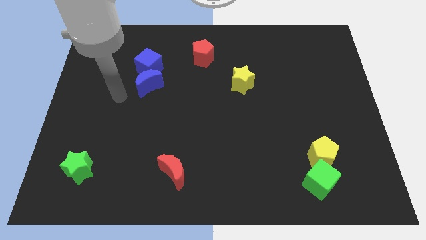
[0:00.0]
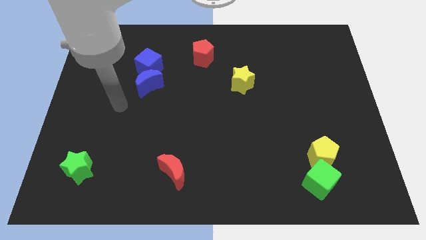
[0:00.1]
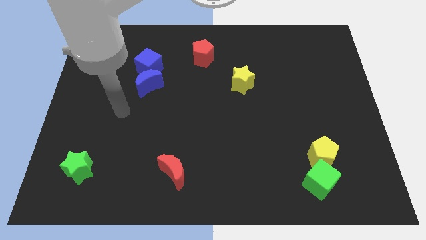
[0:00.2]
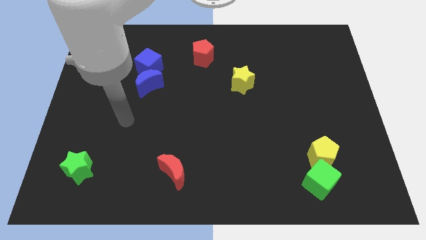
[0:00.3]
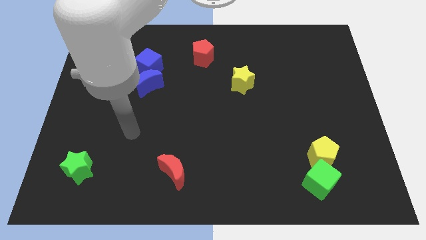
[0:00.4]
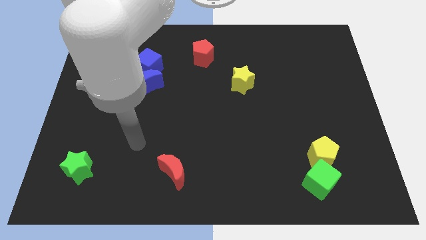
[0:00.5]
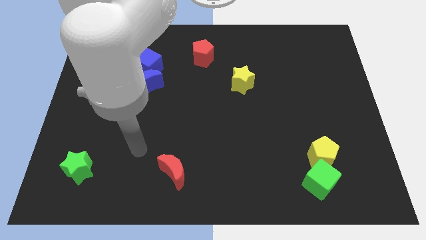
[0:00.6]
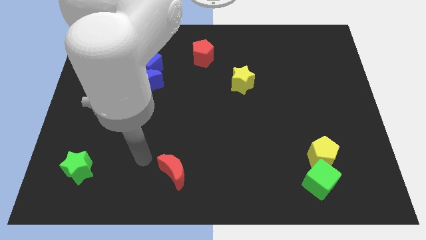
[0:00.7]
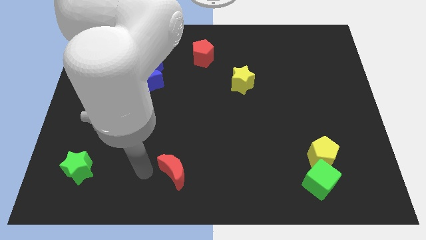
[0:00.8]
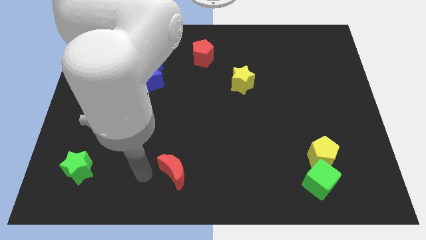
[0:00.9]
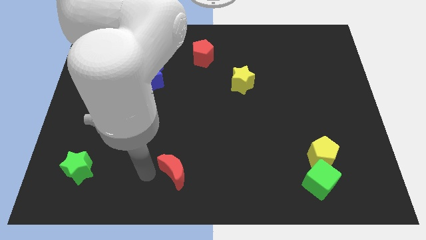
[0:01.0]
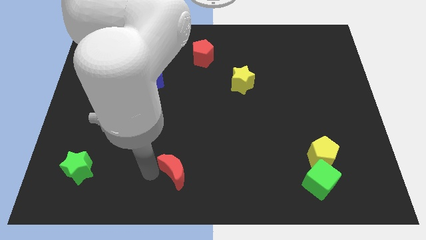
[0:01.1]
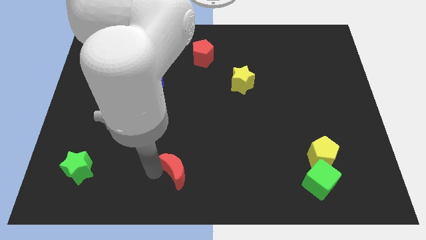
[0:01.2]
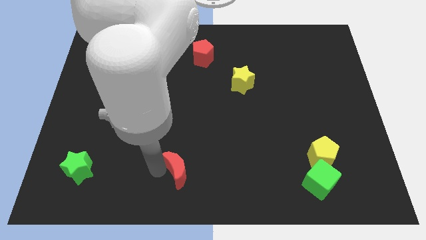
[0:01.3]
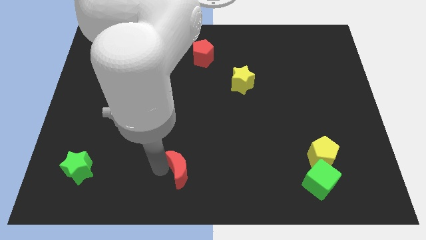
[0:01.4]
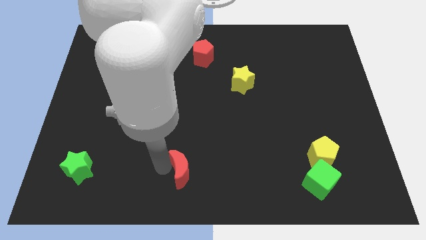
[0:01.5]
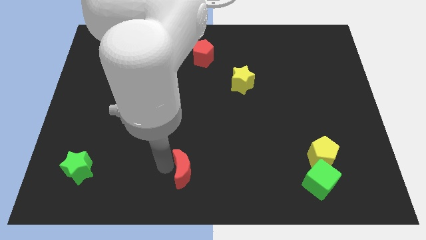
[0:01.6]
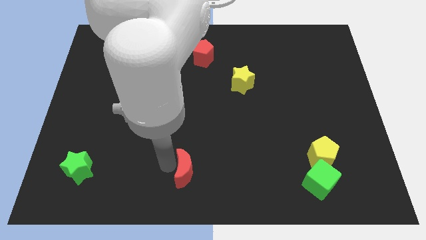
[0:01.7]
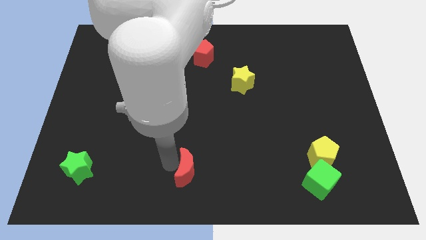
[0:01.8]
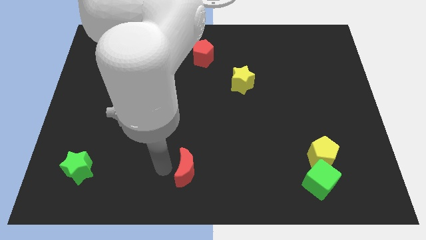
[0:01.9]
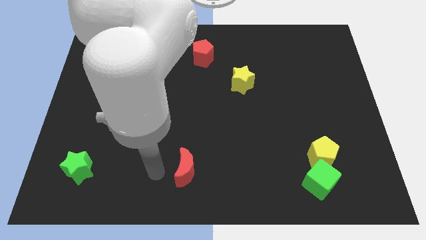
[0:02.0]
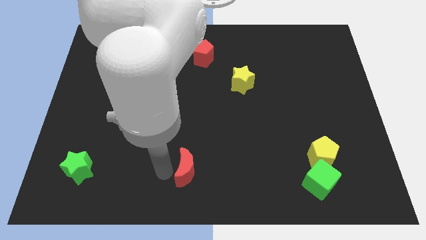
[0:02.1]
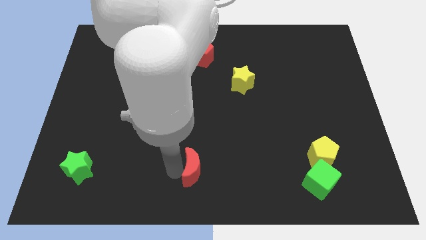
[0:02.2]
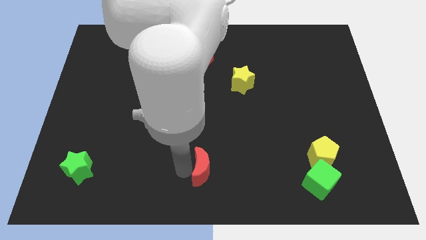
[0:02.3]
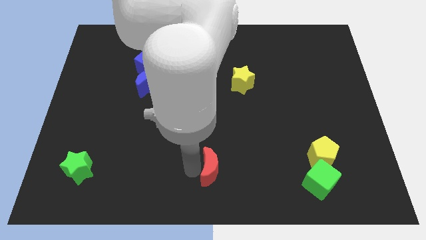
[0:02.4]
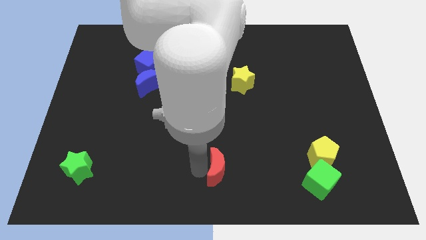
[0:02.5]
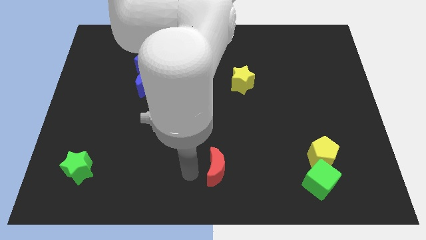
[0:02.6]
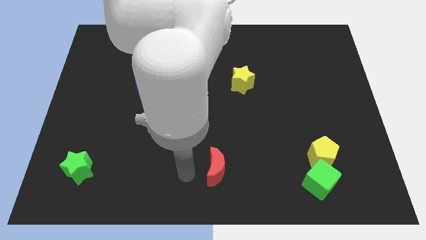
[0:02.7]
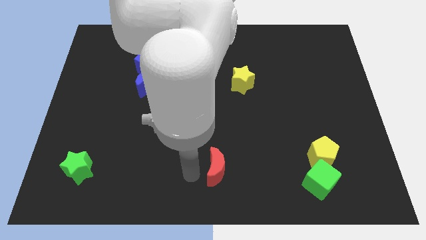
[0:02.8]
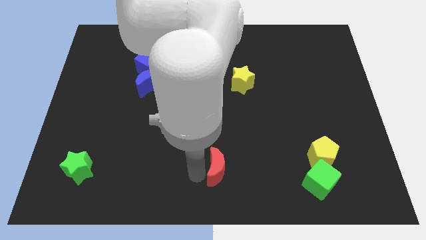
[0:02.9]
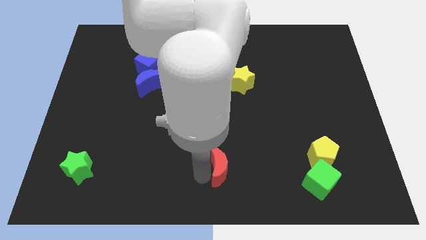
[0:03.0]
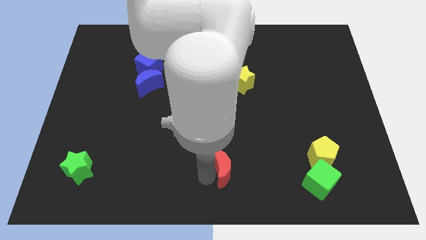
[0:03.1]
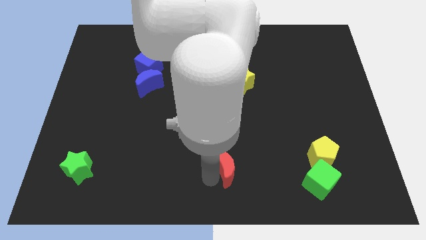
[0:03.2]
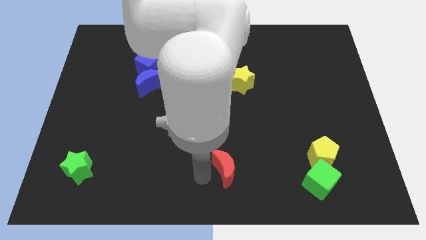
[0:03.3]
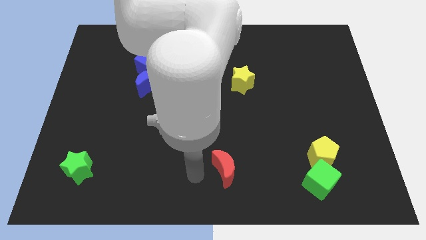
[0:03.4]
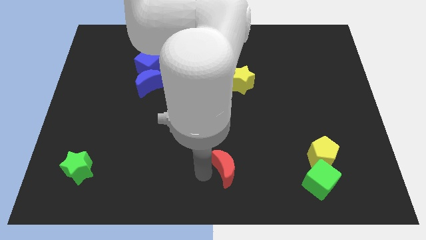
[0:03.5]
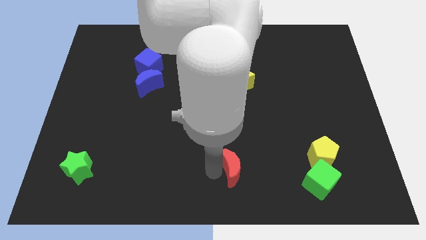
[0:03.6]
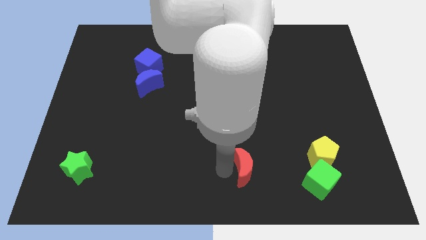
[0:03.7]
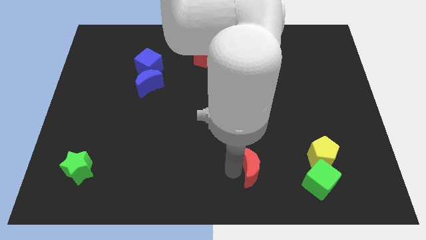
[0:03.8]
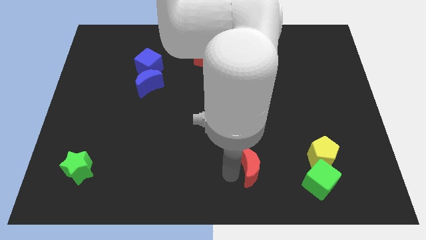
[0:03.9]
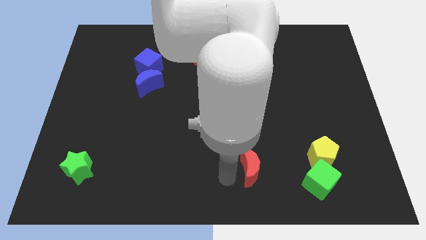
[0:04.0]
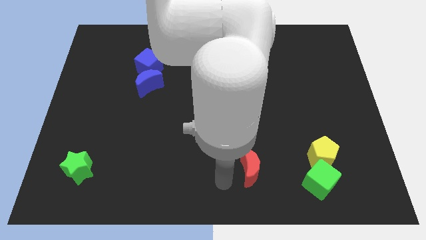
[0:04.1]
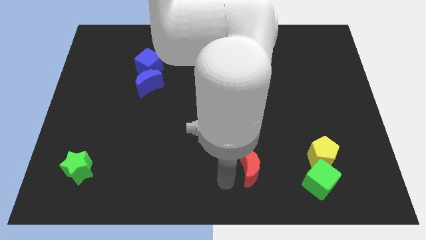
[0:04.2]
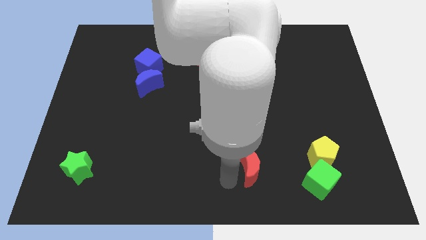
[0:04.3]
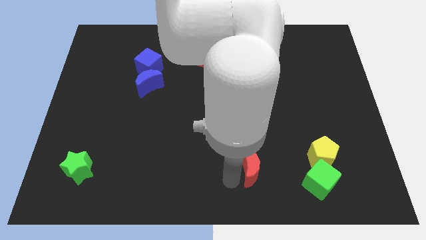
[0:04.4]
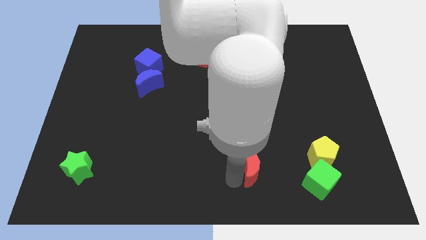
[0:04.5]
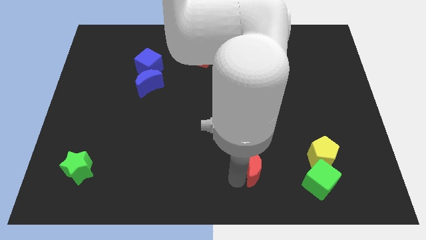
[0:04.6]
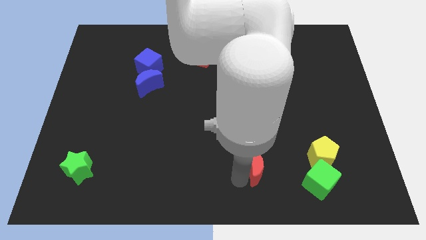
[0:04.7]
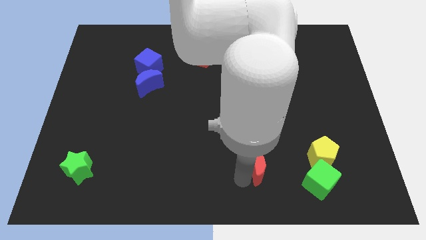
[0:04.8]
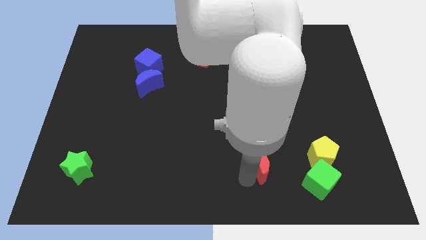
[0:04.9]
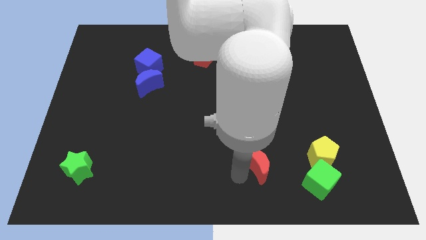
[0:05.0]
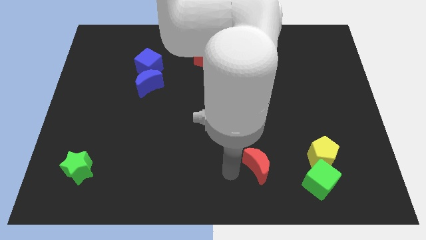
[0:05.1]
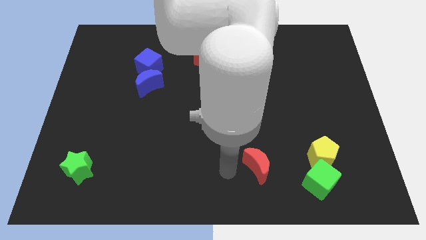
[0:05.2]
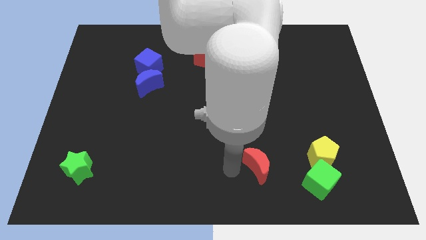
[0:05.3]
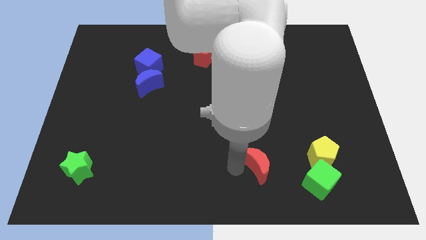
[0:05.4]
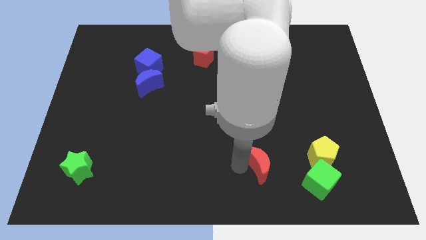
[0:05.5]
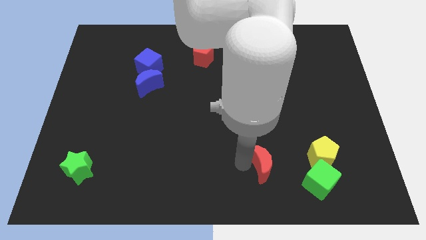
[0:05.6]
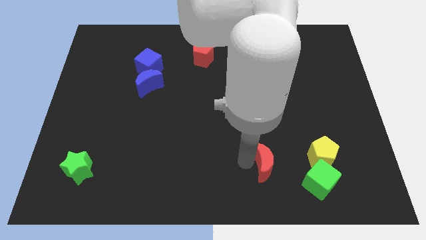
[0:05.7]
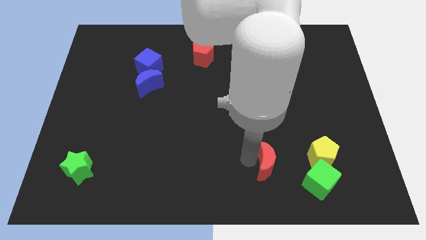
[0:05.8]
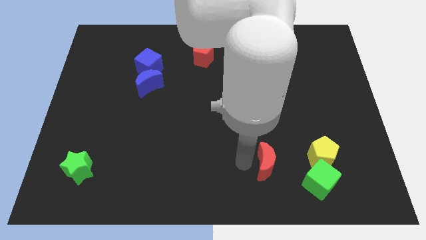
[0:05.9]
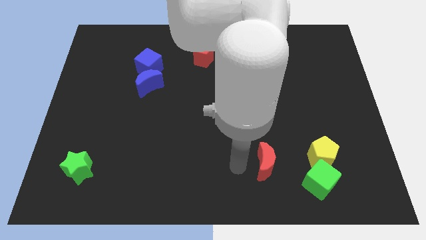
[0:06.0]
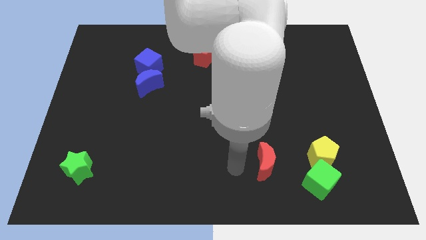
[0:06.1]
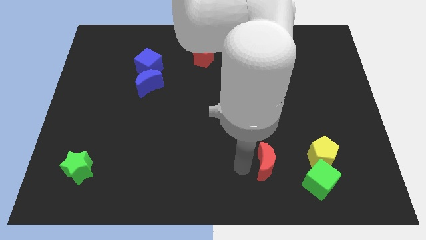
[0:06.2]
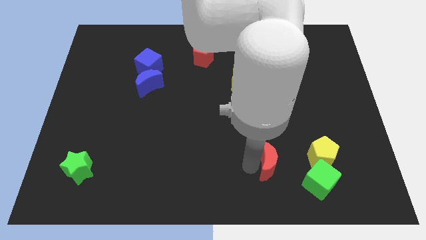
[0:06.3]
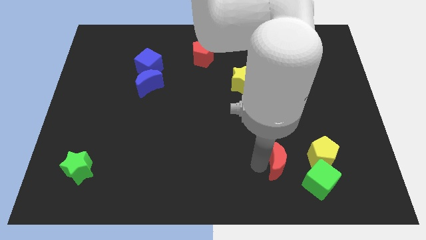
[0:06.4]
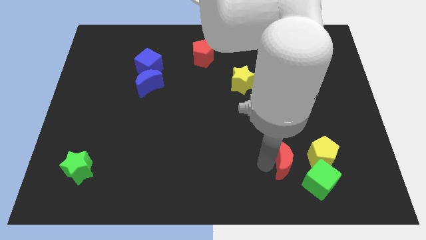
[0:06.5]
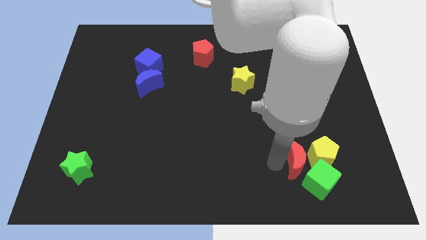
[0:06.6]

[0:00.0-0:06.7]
slide the red moon close to the yellow pentagon
